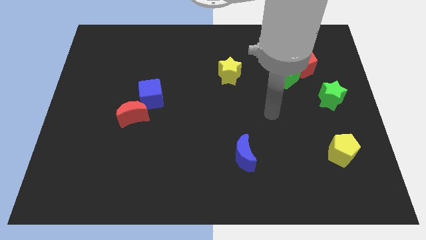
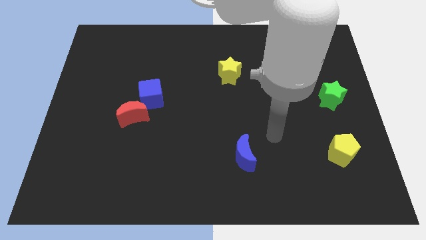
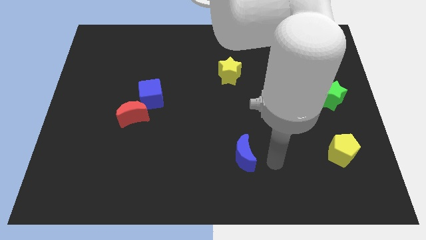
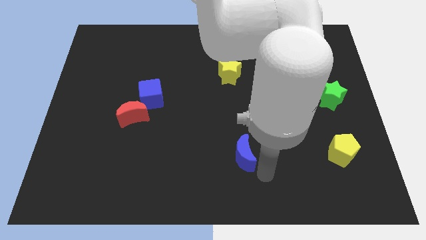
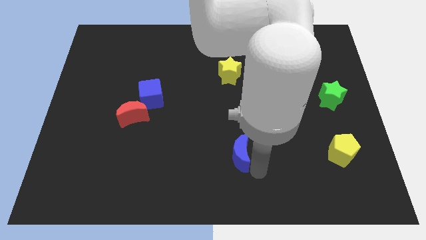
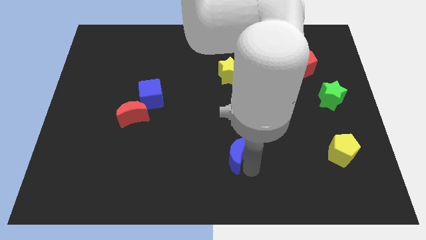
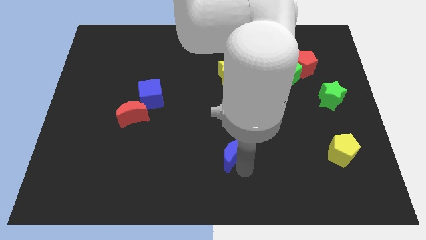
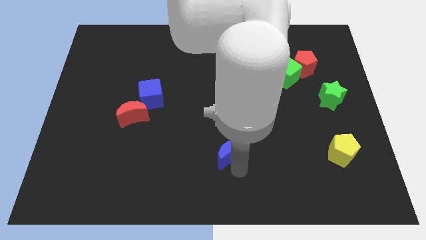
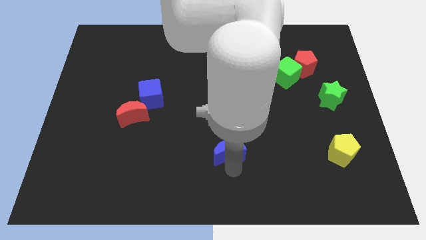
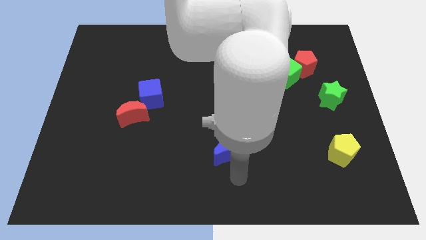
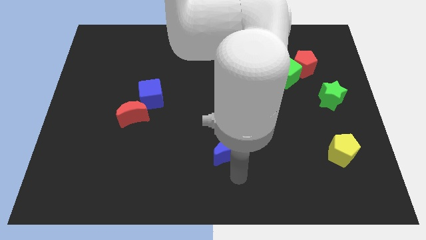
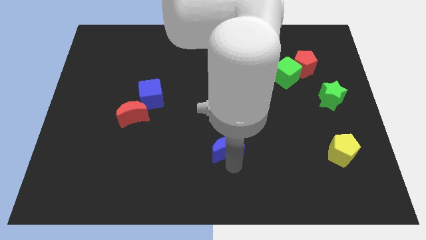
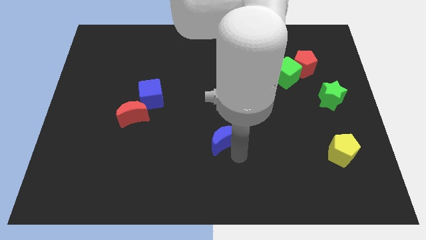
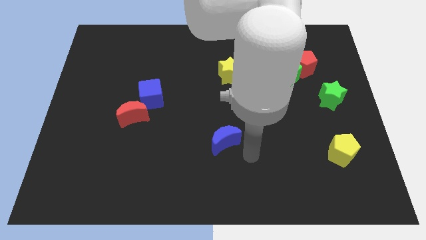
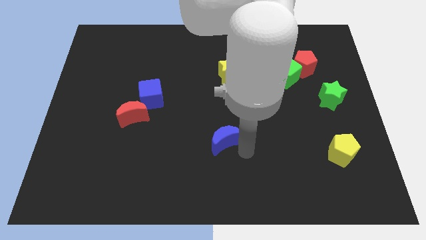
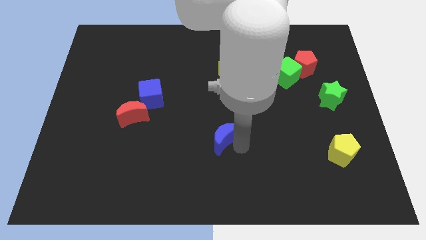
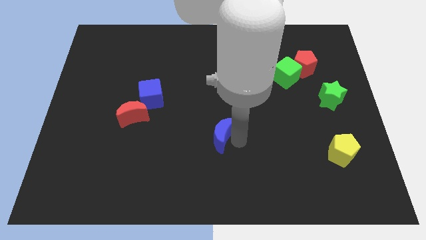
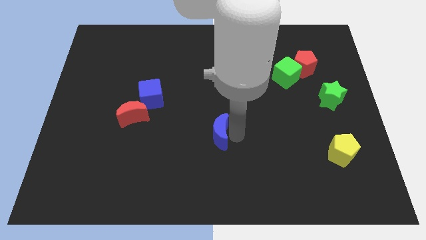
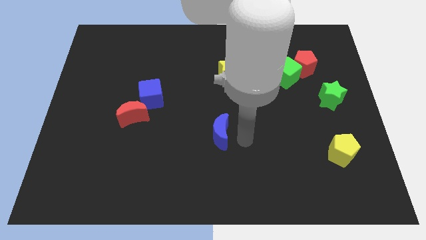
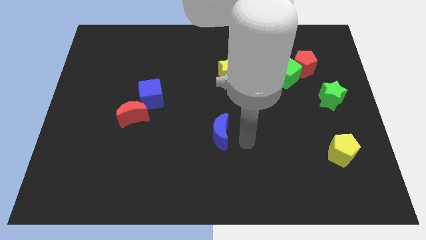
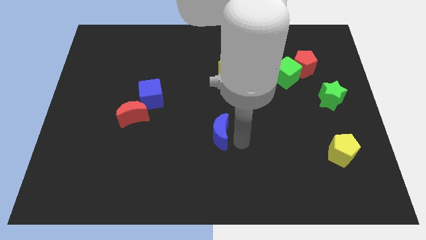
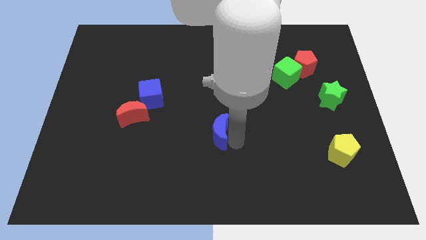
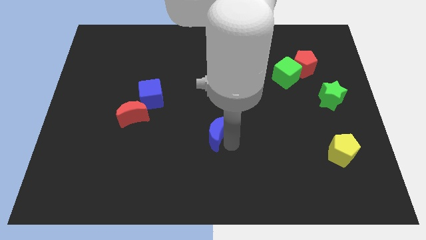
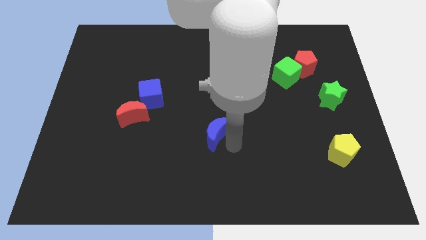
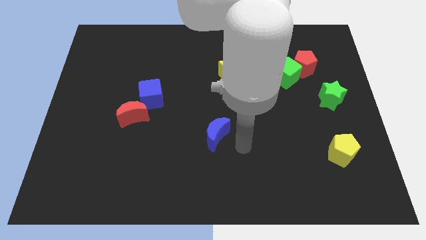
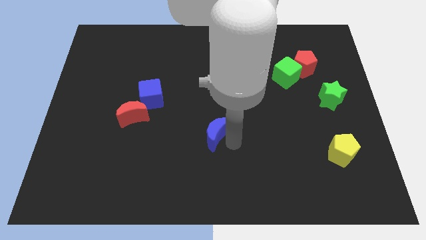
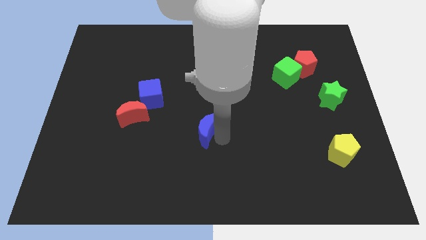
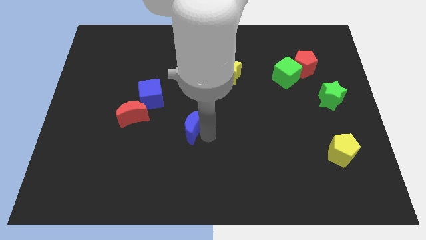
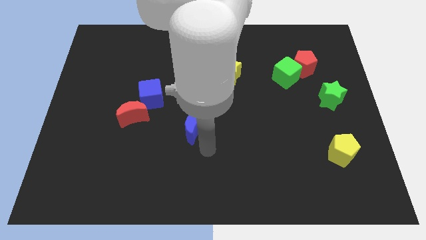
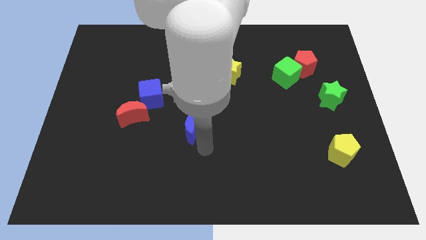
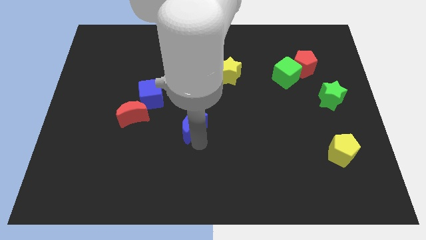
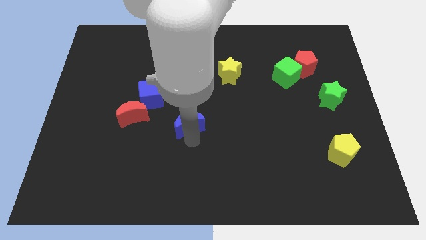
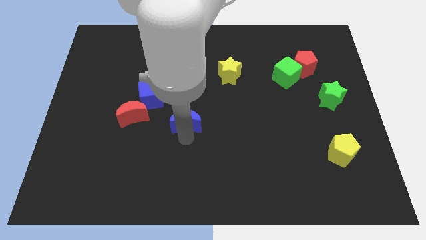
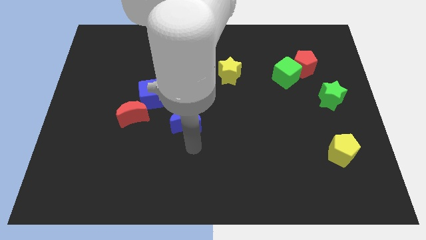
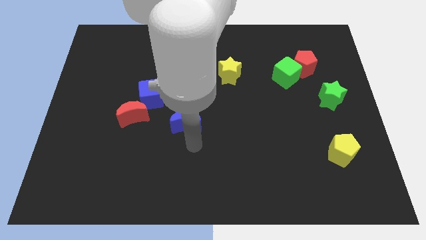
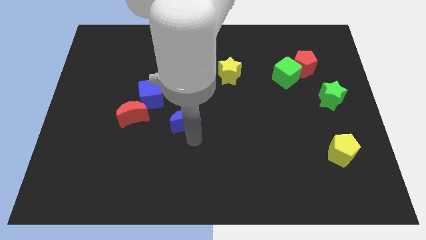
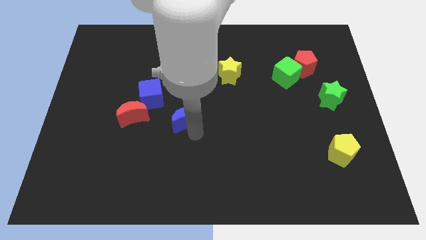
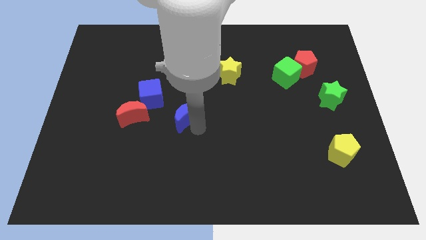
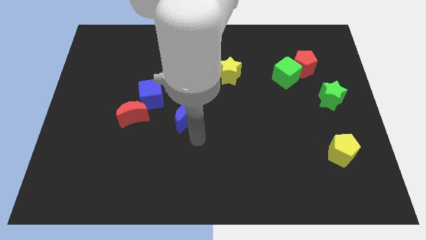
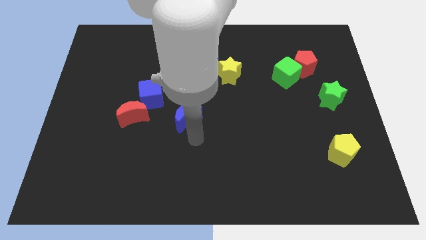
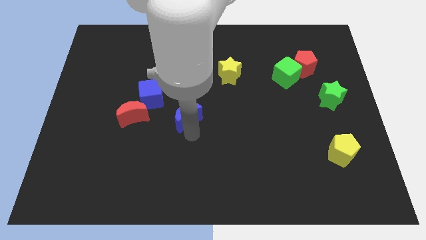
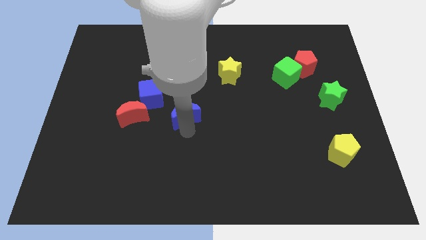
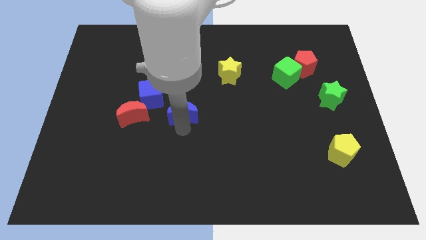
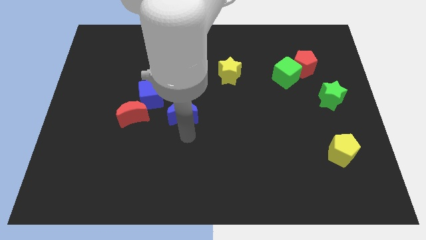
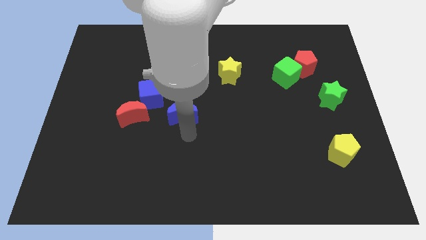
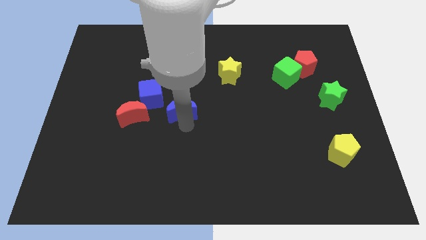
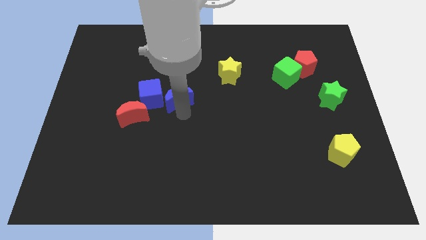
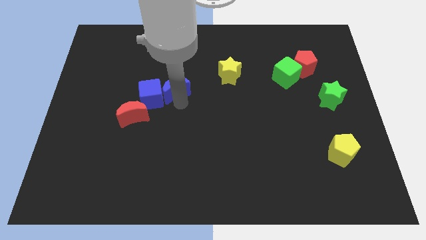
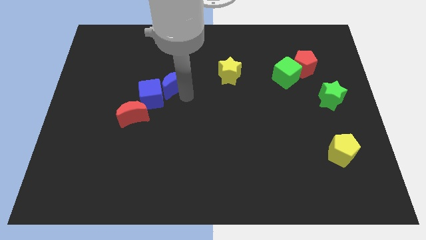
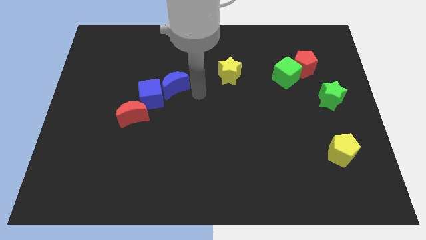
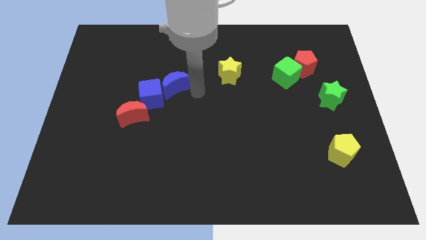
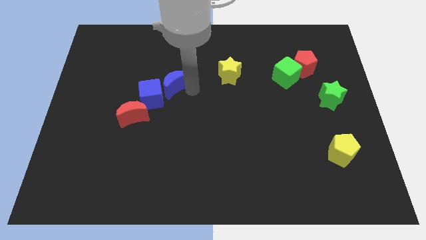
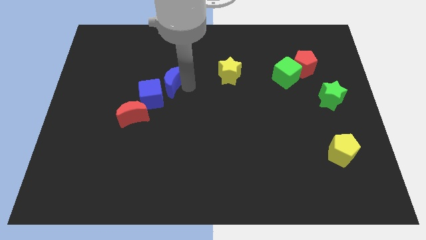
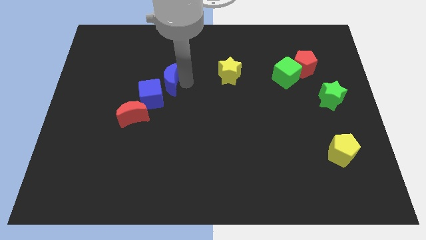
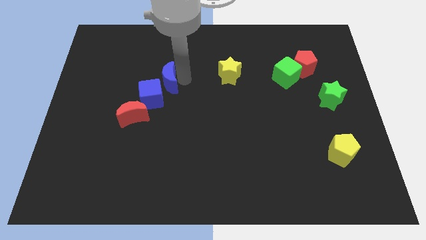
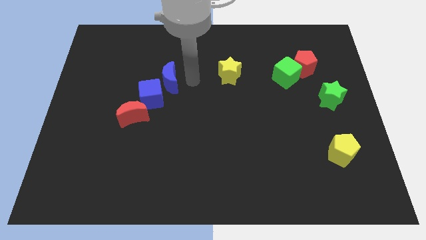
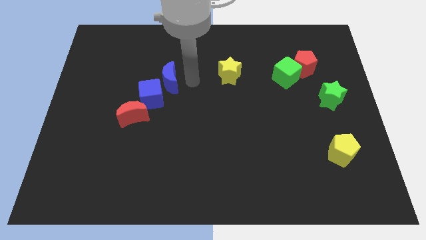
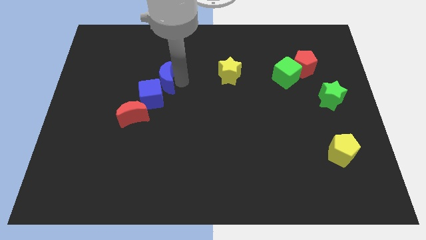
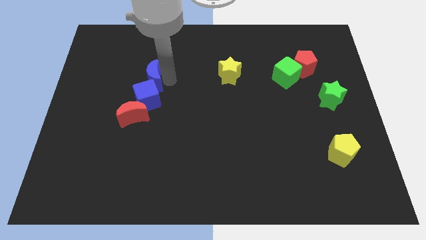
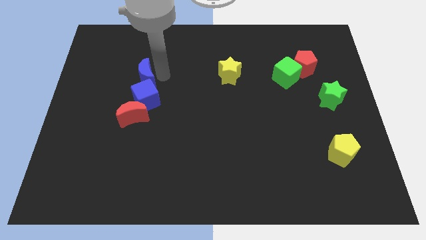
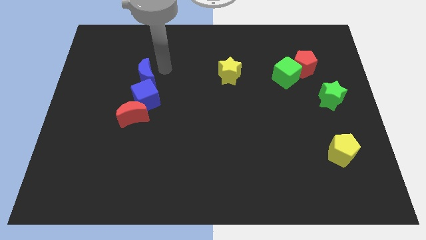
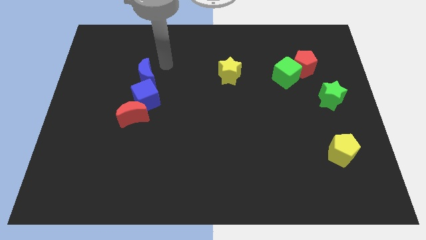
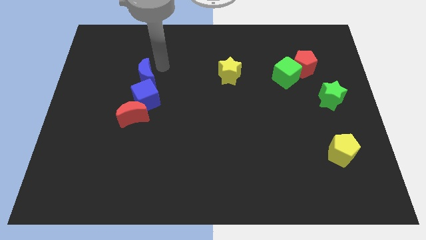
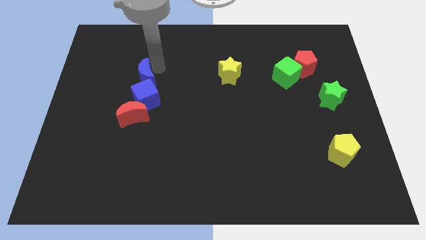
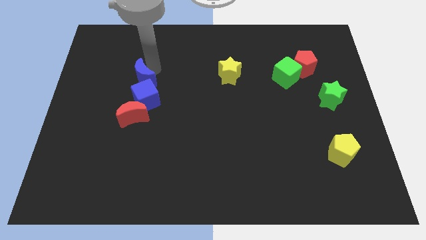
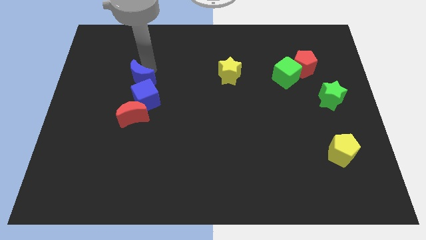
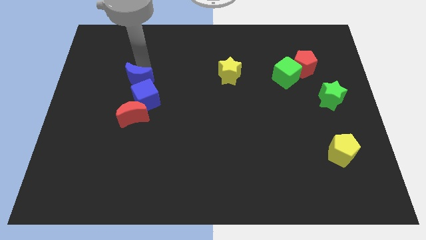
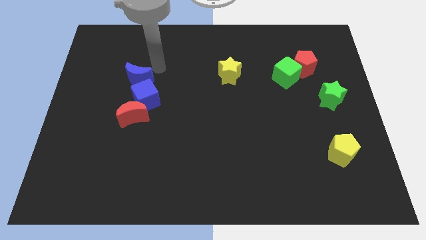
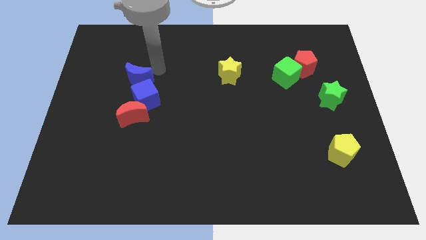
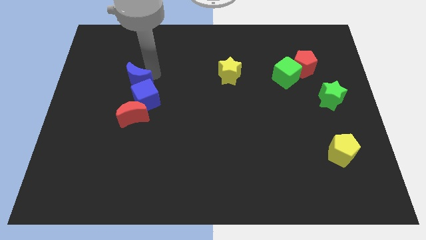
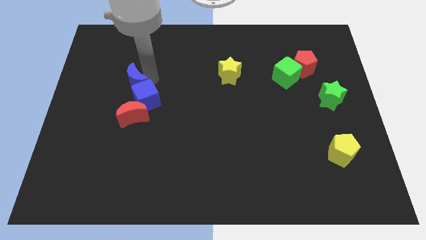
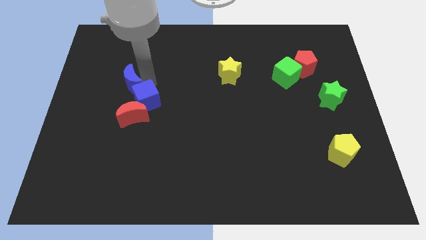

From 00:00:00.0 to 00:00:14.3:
put the blue moon to the left of the blue cube

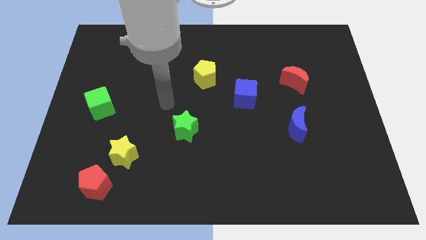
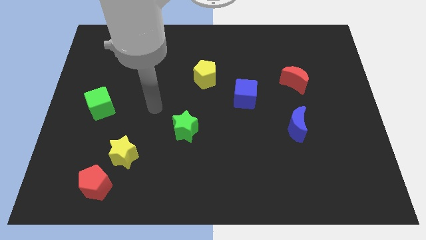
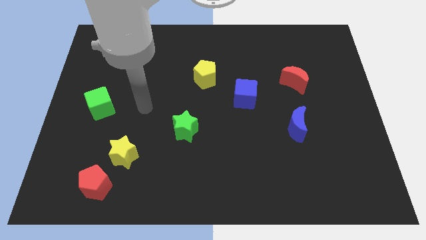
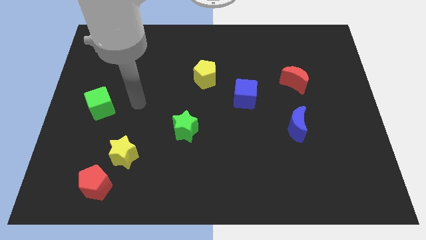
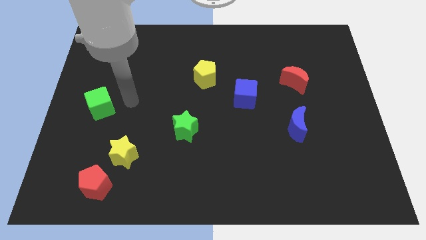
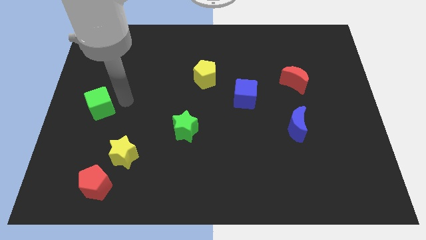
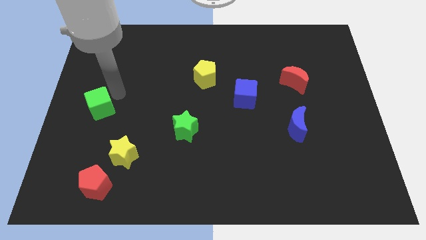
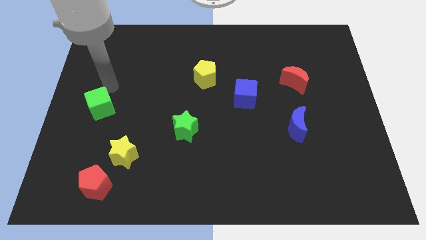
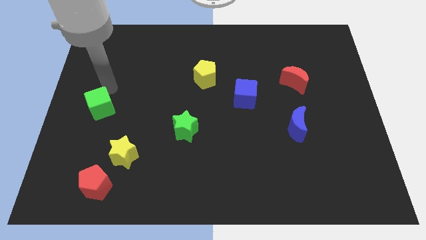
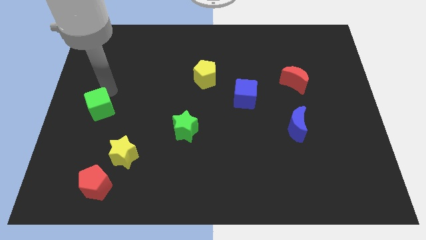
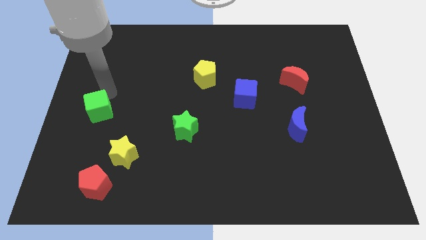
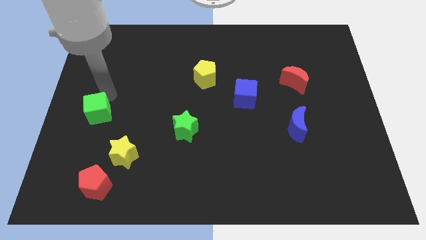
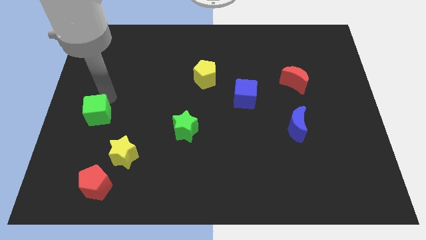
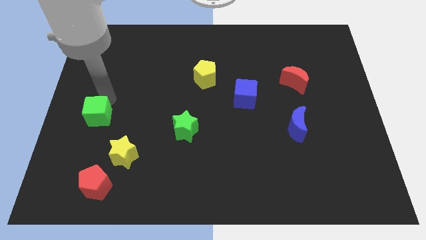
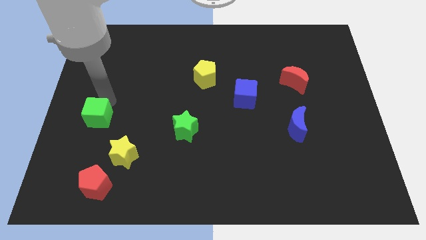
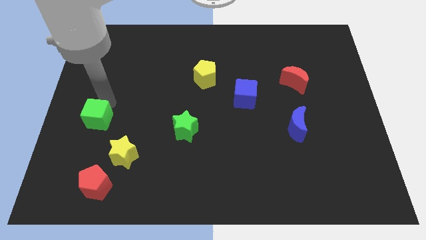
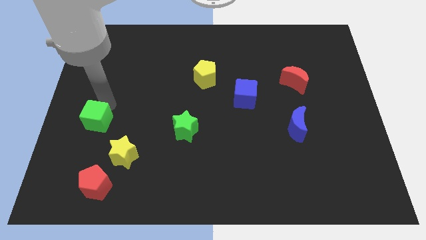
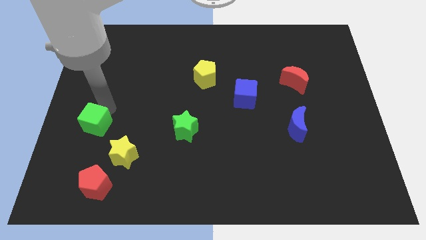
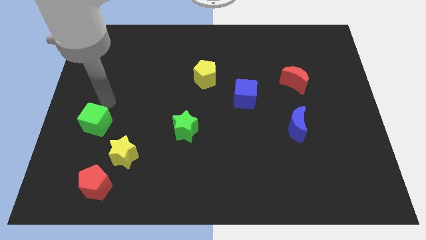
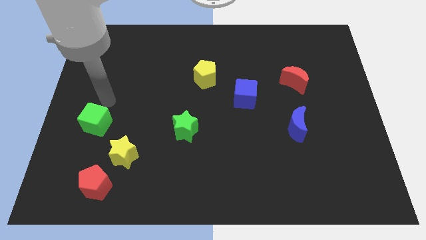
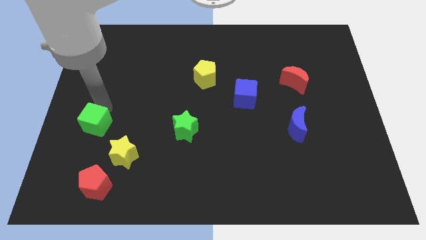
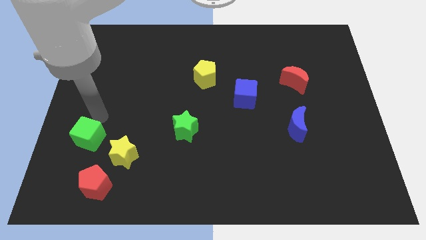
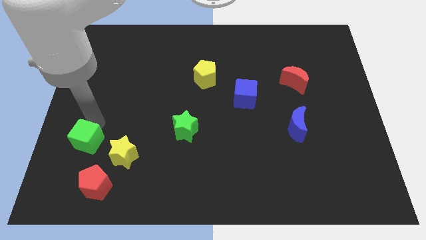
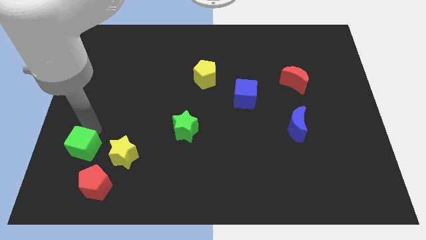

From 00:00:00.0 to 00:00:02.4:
move the green cube to the top left side of the red pentagon
